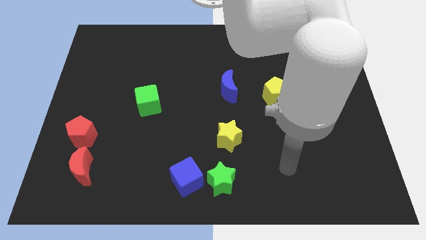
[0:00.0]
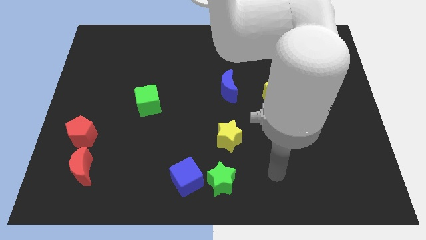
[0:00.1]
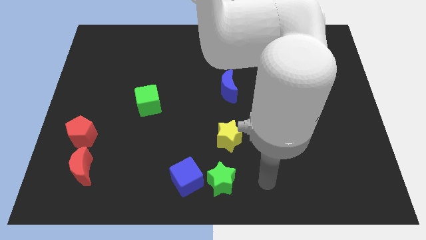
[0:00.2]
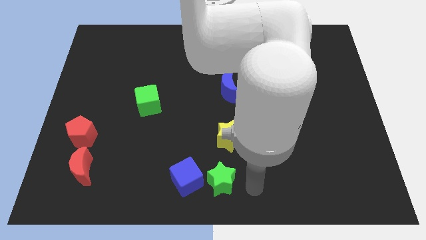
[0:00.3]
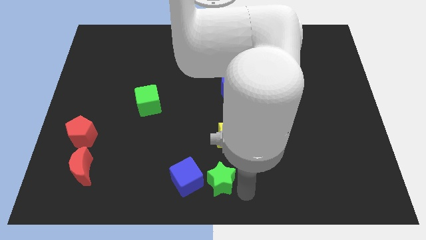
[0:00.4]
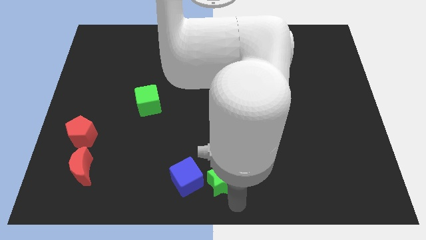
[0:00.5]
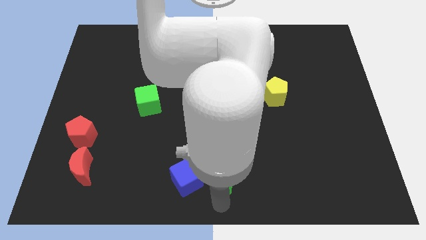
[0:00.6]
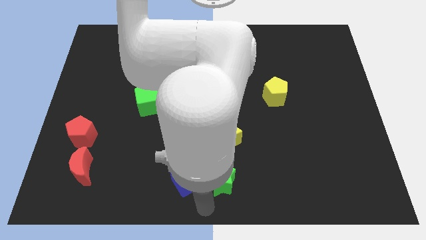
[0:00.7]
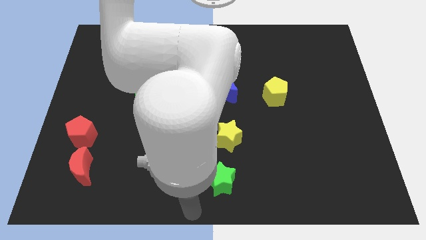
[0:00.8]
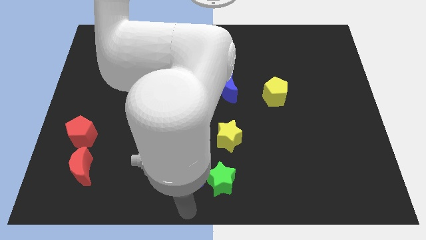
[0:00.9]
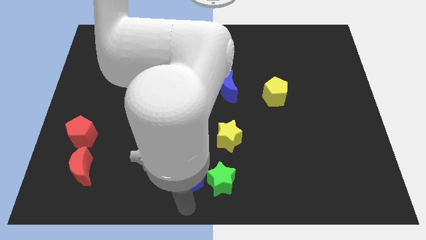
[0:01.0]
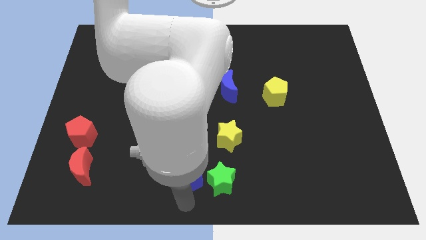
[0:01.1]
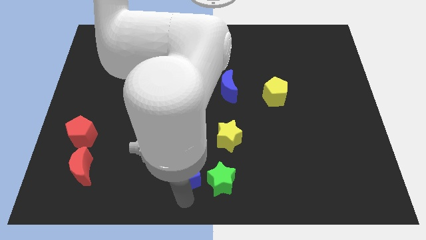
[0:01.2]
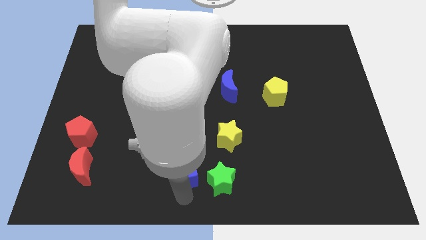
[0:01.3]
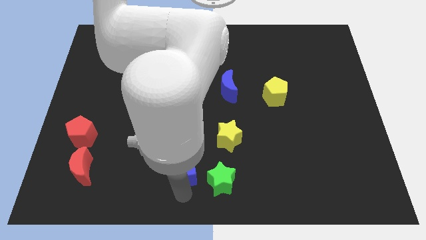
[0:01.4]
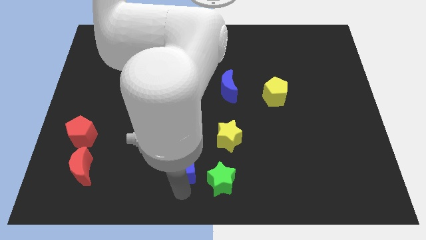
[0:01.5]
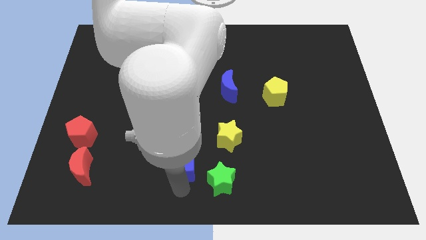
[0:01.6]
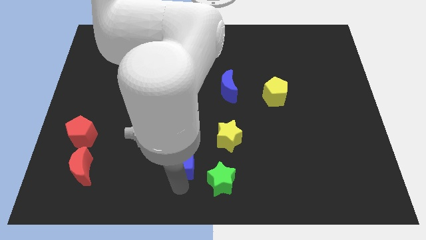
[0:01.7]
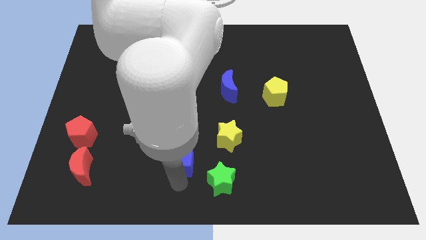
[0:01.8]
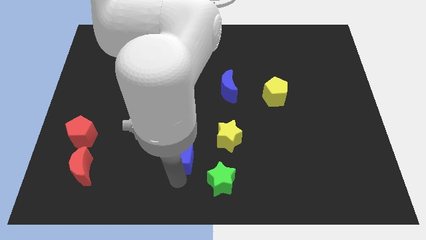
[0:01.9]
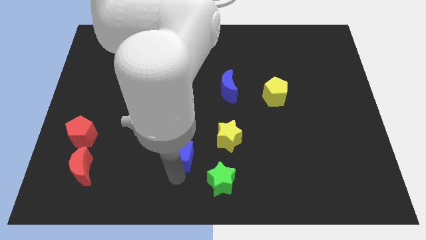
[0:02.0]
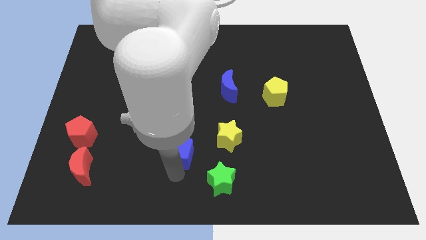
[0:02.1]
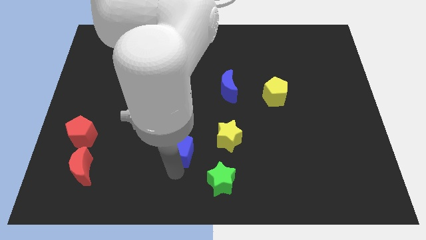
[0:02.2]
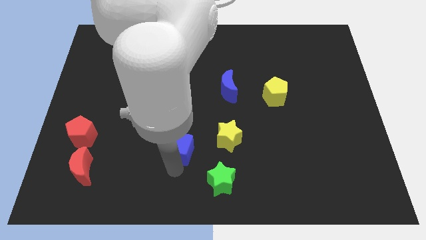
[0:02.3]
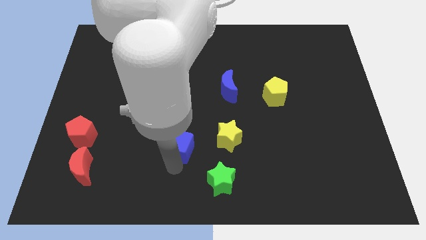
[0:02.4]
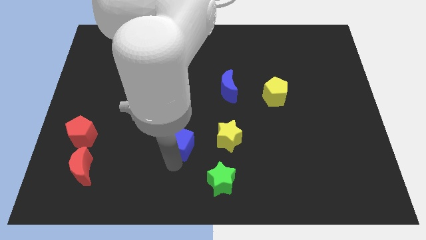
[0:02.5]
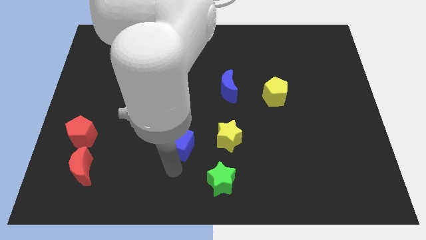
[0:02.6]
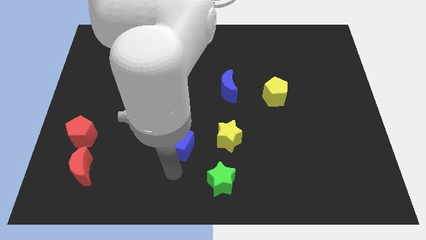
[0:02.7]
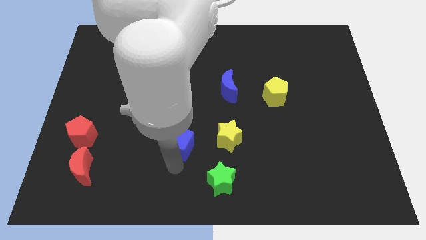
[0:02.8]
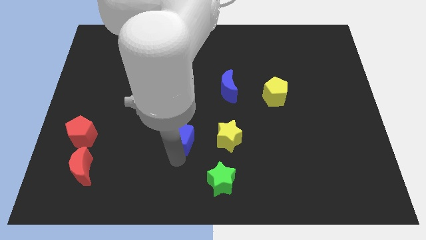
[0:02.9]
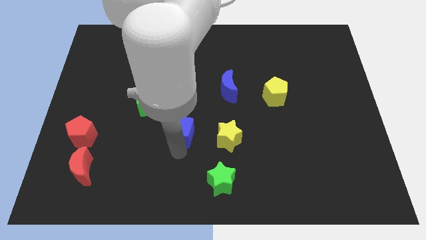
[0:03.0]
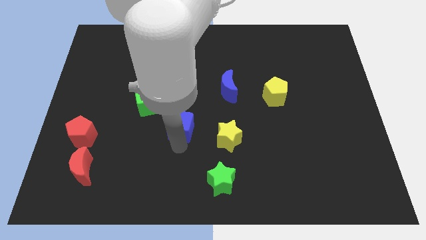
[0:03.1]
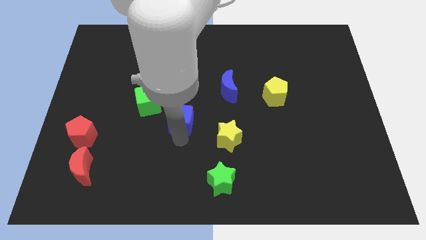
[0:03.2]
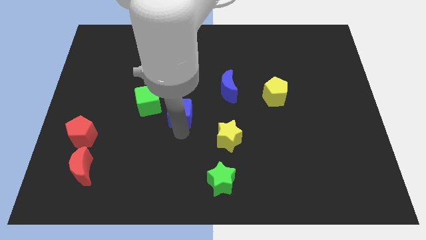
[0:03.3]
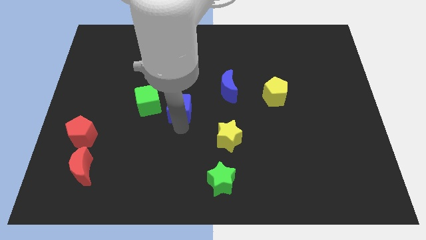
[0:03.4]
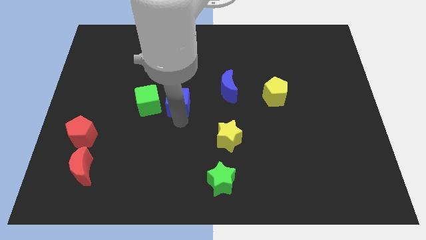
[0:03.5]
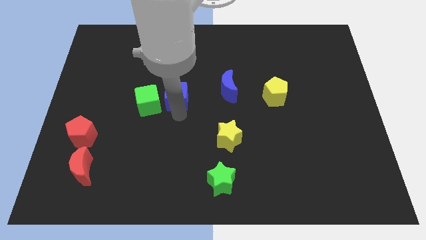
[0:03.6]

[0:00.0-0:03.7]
move the blue cube upwards

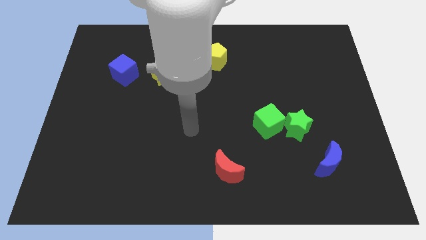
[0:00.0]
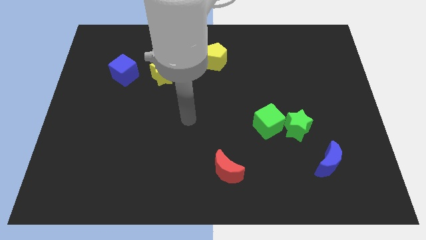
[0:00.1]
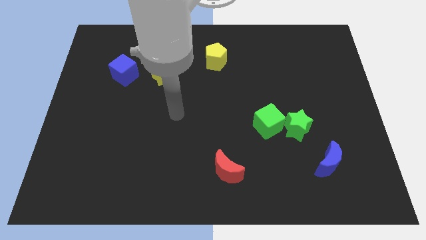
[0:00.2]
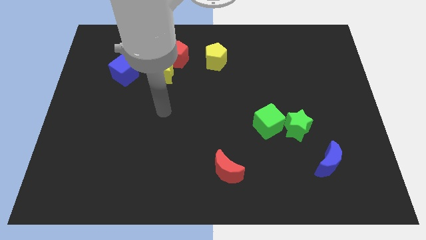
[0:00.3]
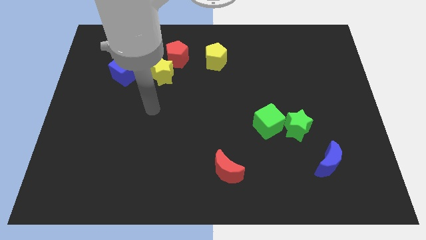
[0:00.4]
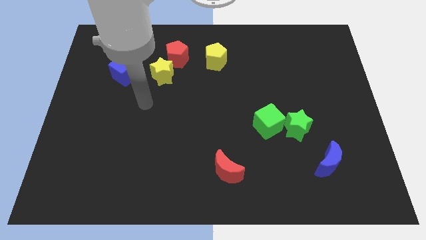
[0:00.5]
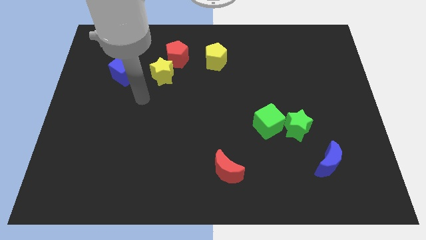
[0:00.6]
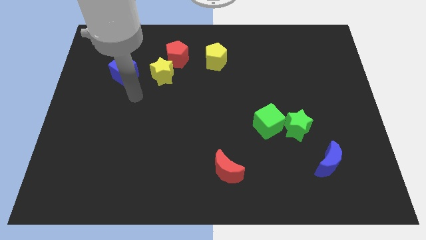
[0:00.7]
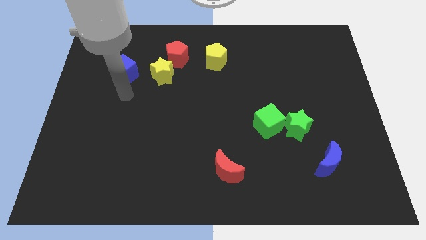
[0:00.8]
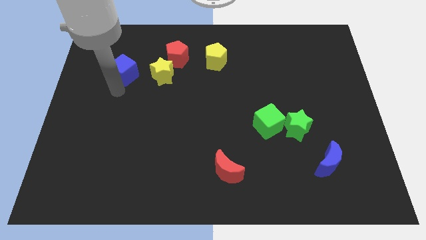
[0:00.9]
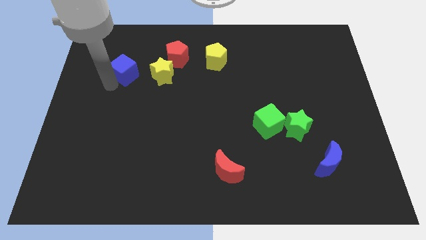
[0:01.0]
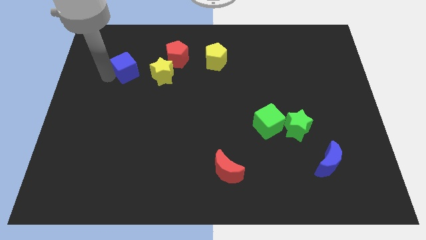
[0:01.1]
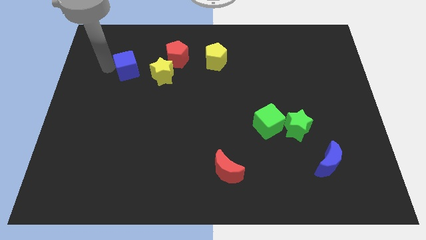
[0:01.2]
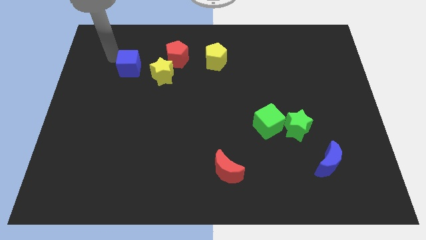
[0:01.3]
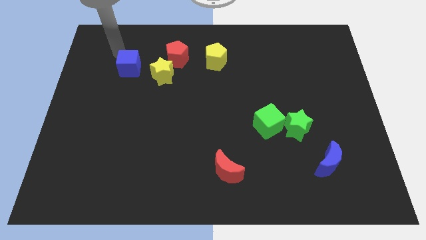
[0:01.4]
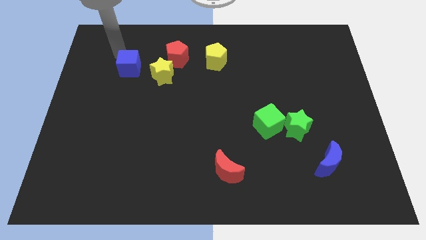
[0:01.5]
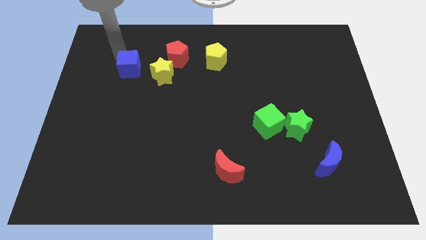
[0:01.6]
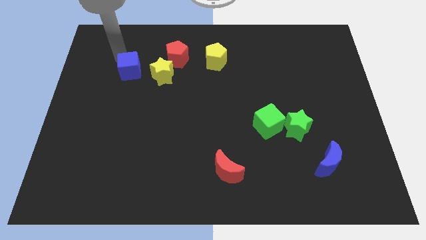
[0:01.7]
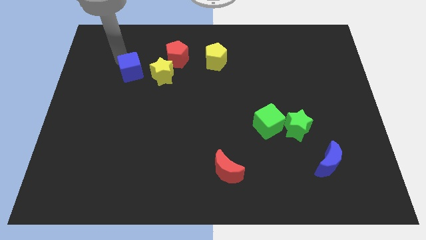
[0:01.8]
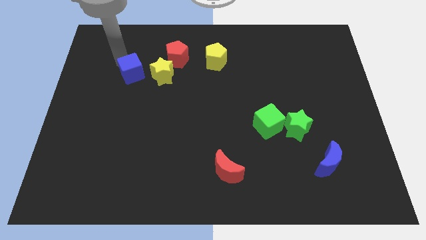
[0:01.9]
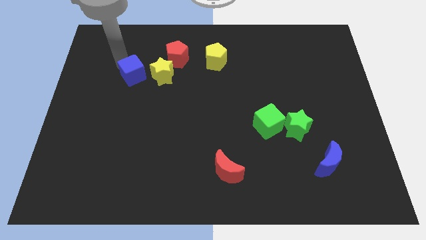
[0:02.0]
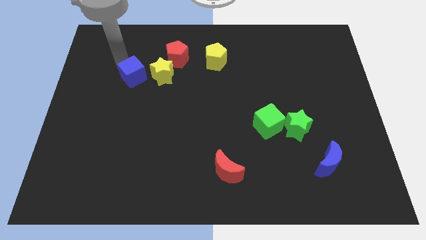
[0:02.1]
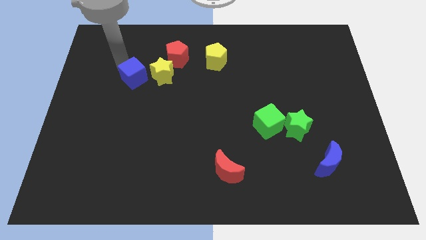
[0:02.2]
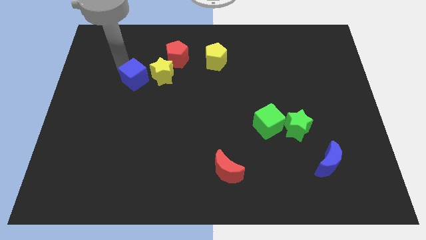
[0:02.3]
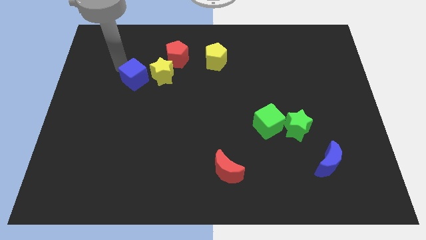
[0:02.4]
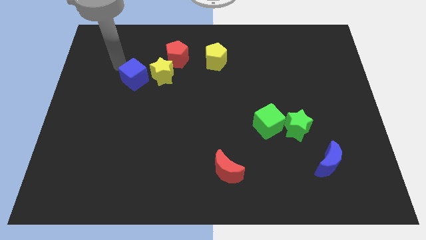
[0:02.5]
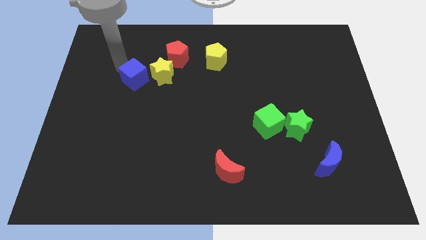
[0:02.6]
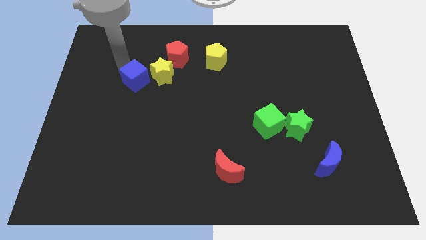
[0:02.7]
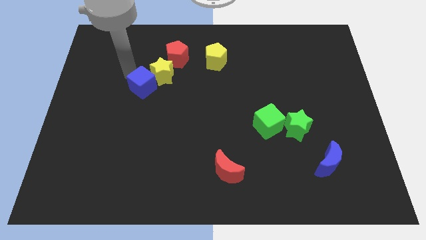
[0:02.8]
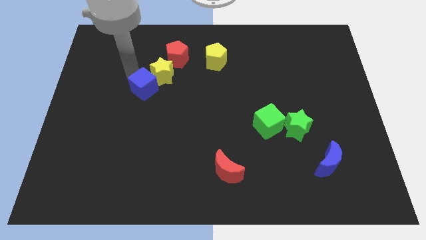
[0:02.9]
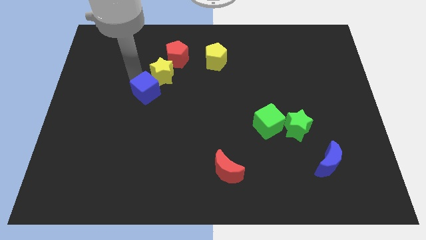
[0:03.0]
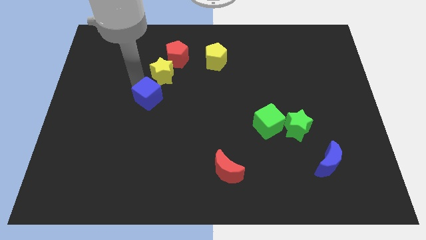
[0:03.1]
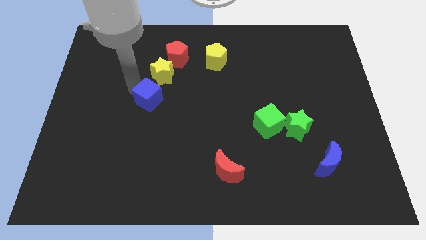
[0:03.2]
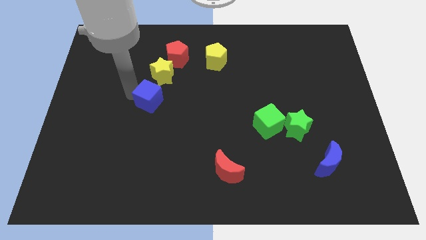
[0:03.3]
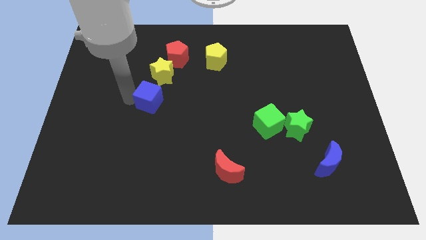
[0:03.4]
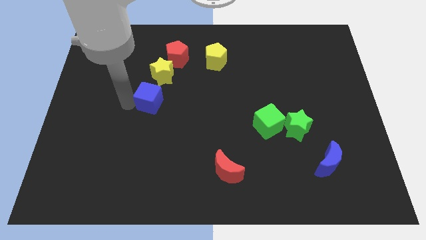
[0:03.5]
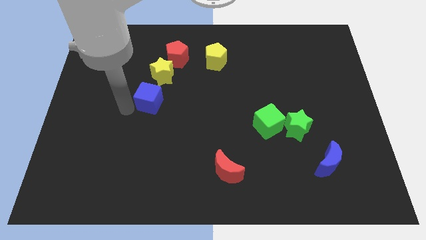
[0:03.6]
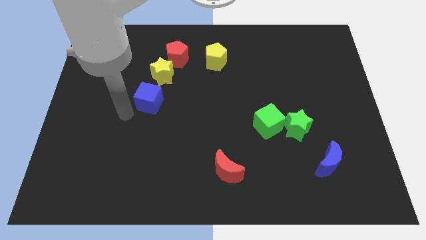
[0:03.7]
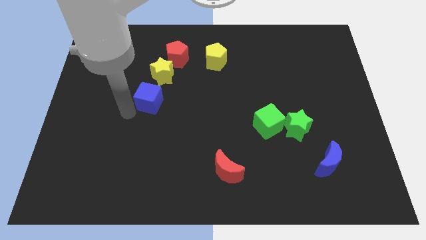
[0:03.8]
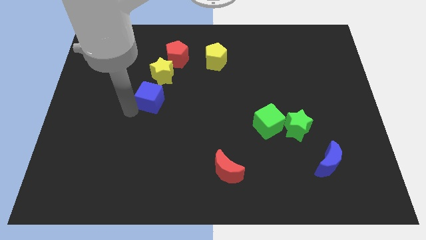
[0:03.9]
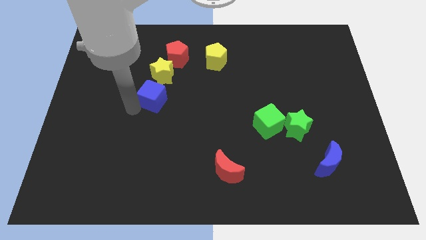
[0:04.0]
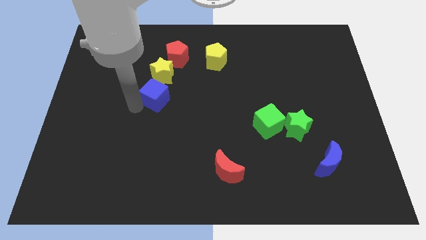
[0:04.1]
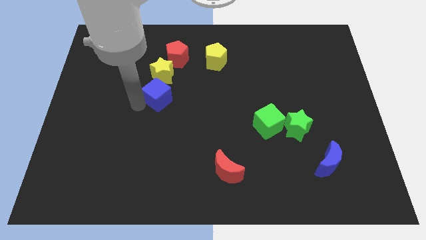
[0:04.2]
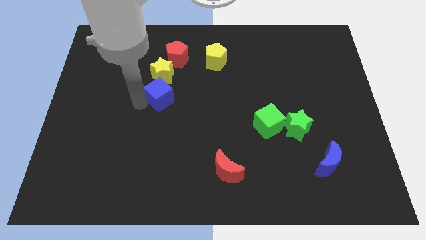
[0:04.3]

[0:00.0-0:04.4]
push the blue cube slightly right
